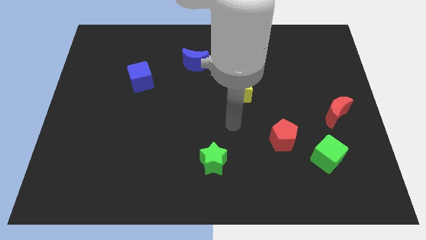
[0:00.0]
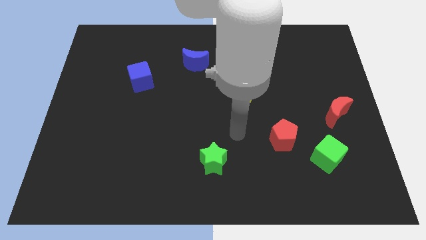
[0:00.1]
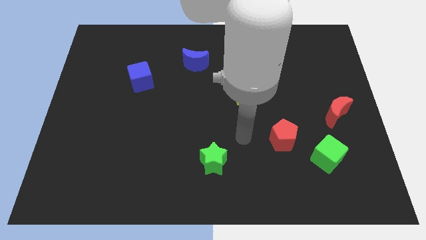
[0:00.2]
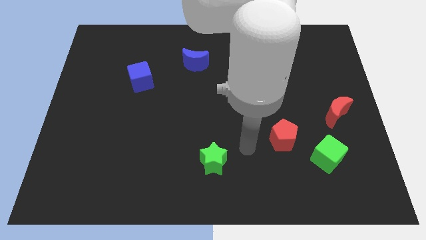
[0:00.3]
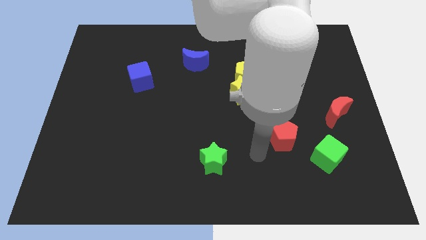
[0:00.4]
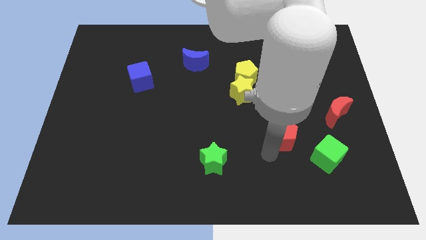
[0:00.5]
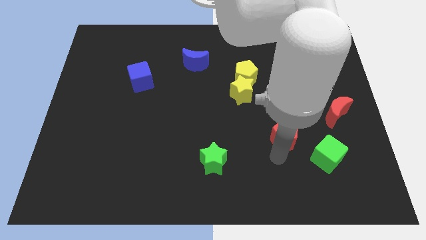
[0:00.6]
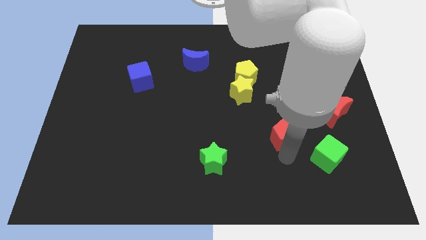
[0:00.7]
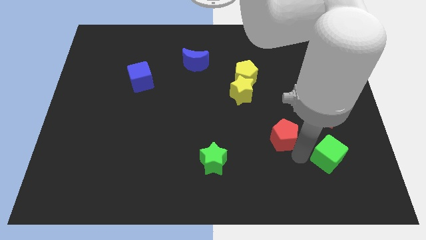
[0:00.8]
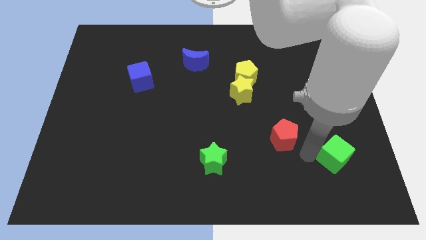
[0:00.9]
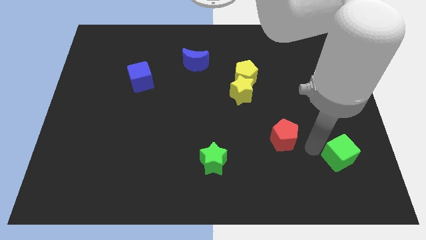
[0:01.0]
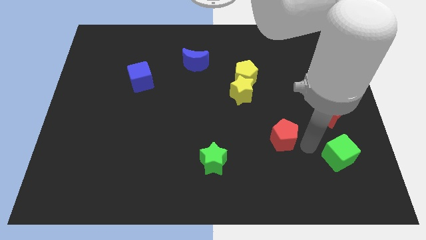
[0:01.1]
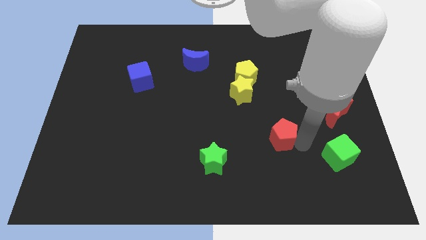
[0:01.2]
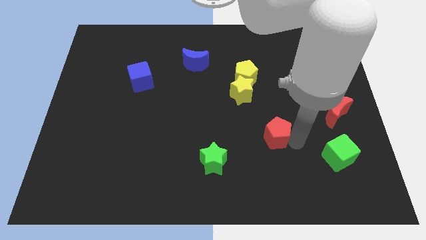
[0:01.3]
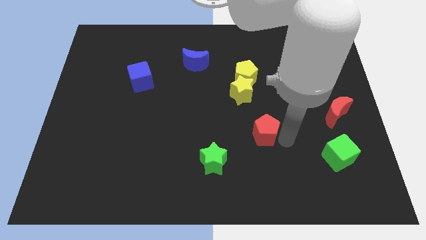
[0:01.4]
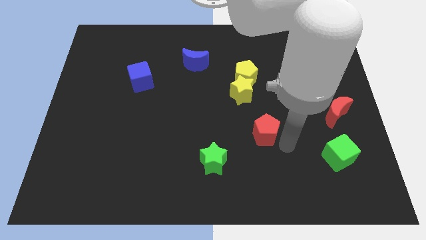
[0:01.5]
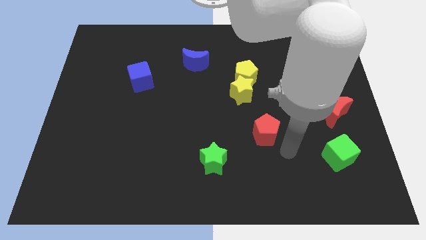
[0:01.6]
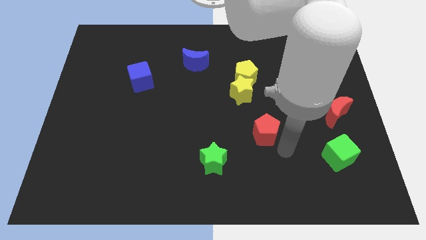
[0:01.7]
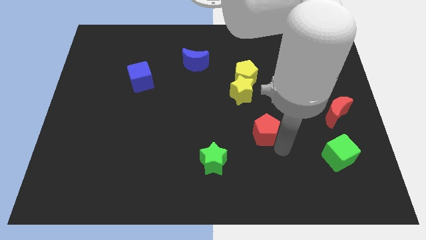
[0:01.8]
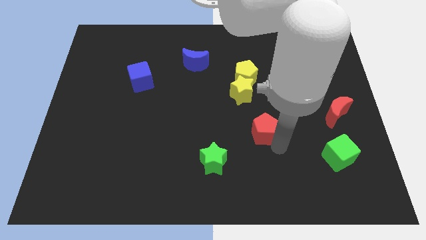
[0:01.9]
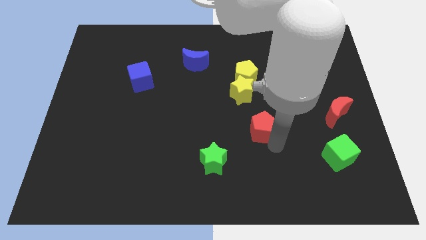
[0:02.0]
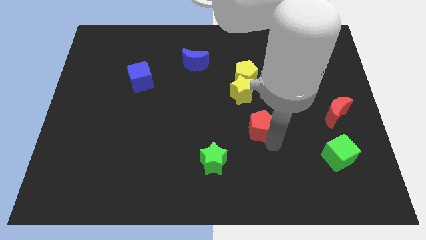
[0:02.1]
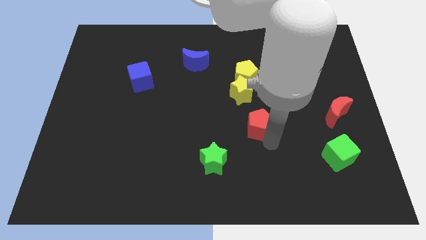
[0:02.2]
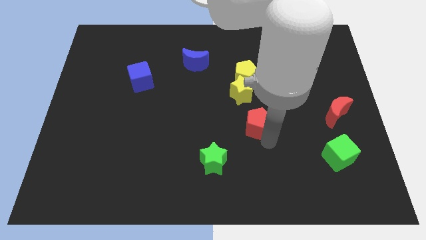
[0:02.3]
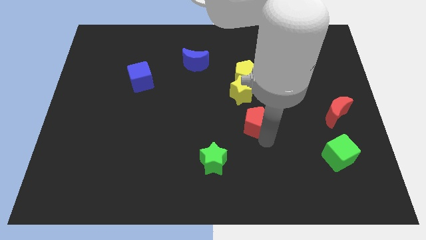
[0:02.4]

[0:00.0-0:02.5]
slightly move the red pentagon upwards and then left

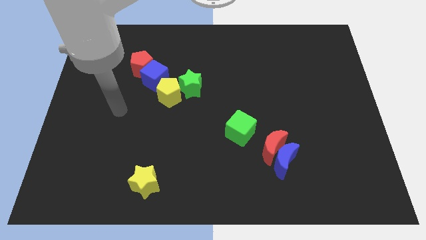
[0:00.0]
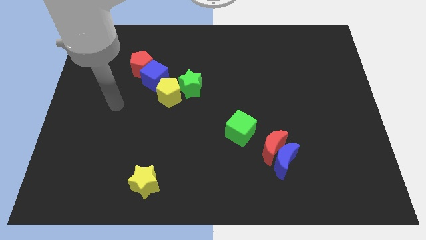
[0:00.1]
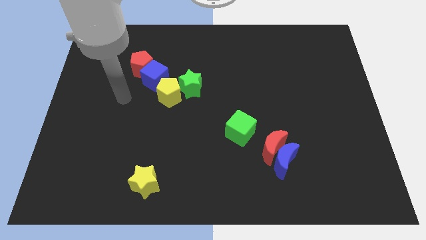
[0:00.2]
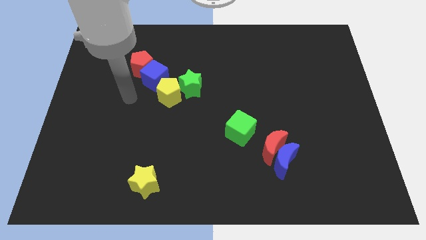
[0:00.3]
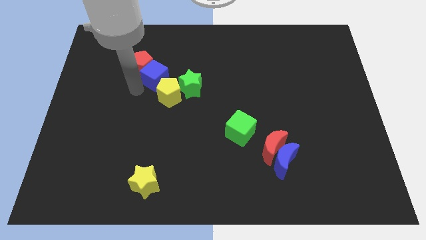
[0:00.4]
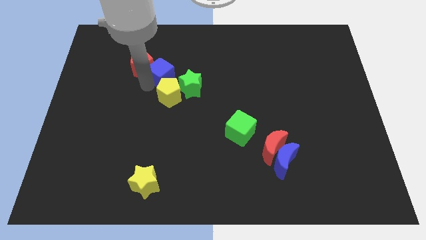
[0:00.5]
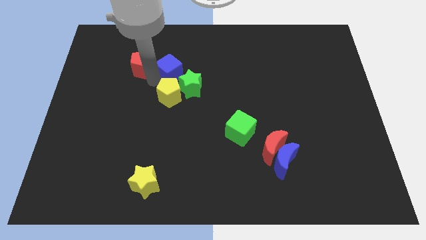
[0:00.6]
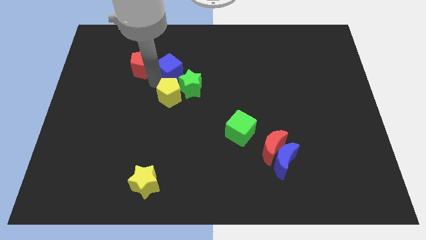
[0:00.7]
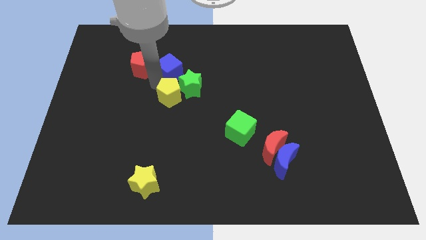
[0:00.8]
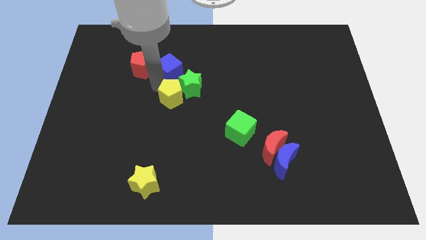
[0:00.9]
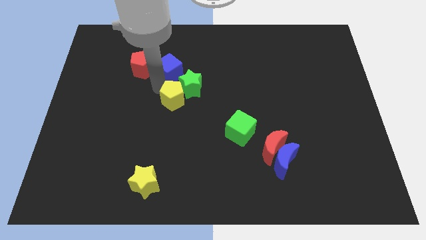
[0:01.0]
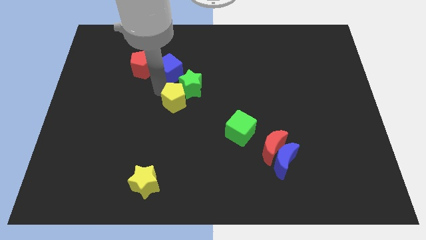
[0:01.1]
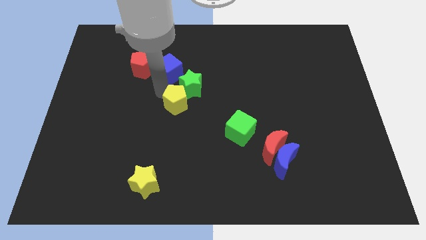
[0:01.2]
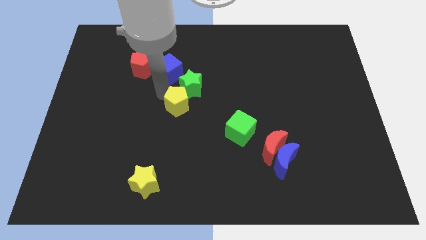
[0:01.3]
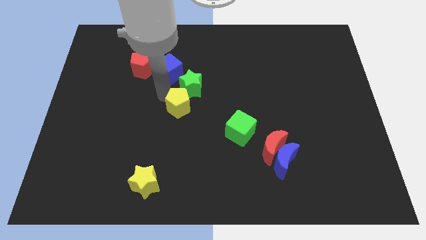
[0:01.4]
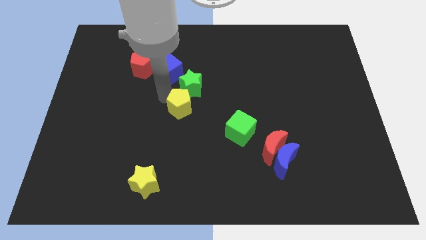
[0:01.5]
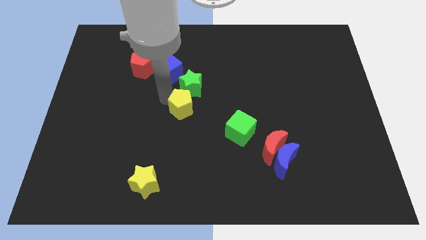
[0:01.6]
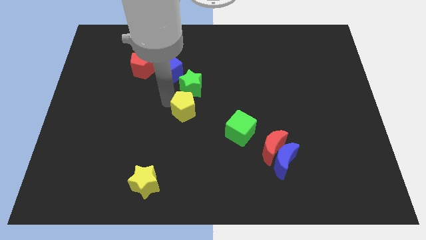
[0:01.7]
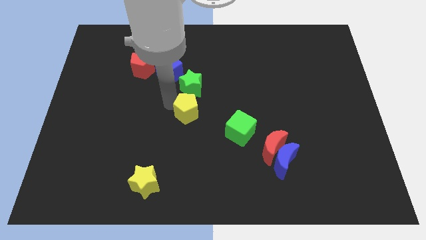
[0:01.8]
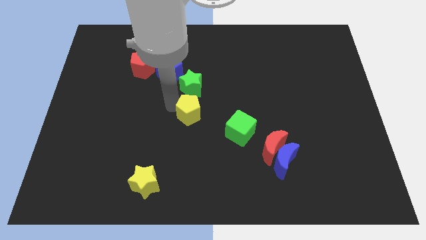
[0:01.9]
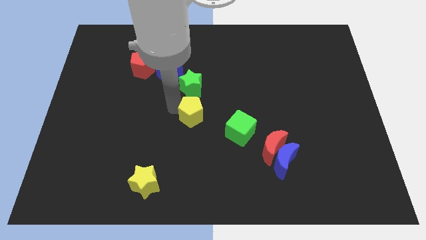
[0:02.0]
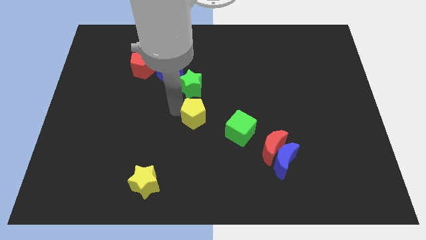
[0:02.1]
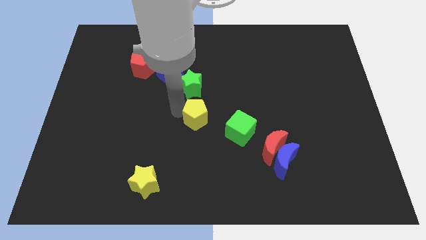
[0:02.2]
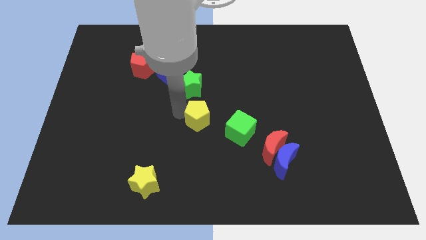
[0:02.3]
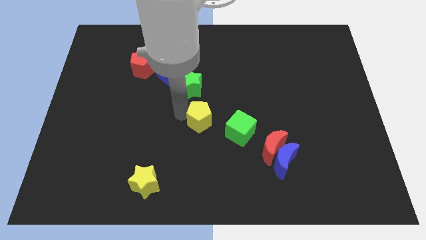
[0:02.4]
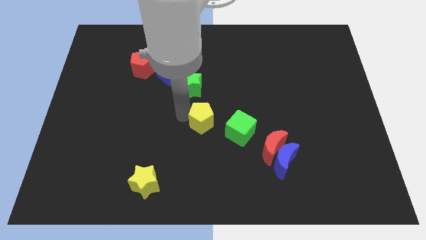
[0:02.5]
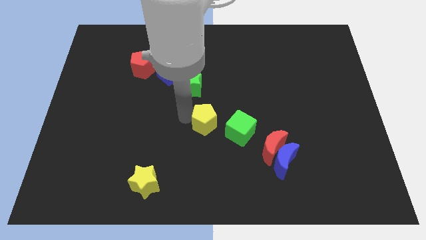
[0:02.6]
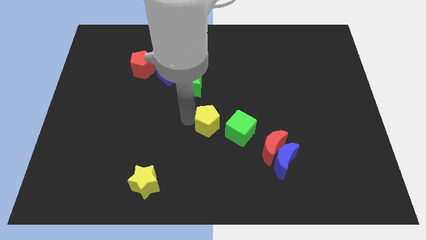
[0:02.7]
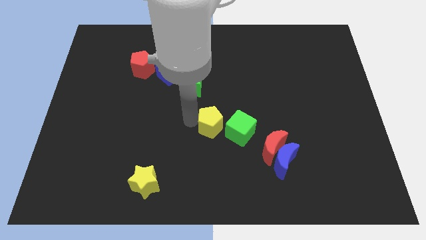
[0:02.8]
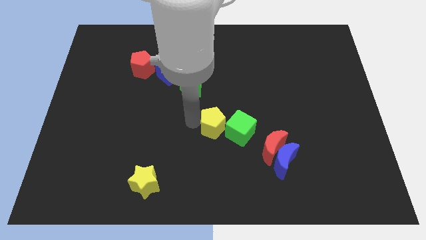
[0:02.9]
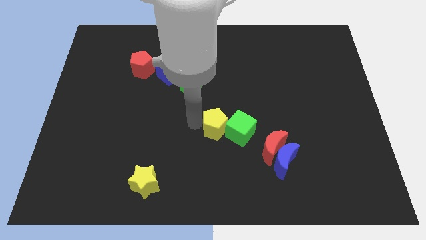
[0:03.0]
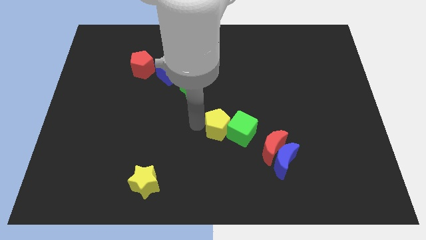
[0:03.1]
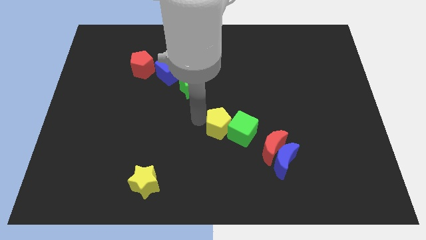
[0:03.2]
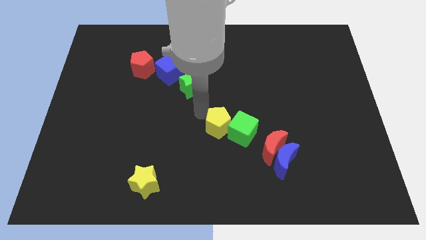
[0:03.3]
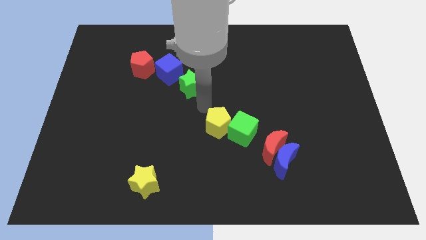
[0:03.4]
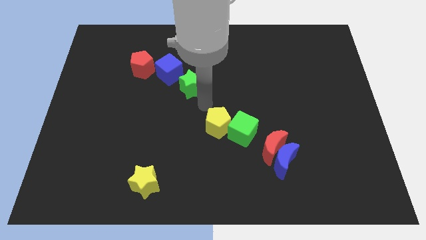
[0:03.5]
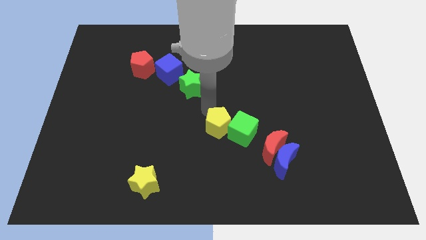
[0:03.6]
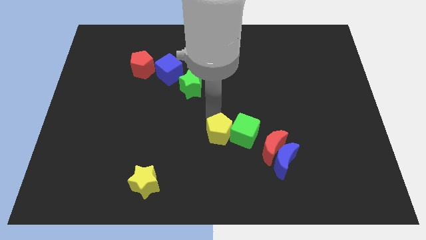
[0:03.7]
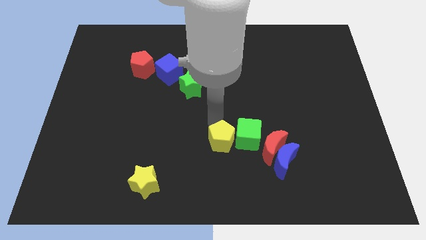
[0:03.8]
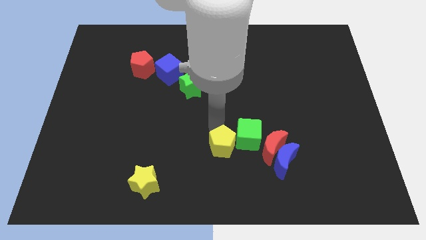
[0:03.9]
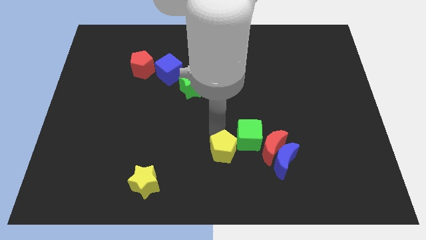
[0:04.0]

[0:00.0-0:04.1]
slide the yellow pentagon downwards and right diagonally

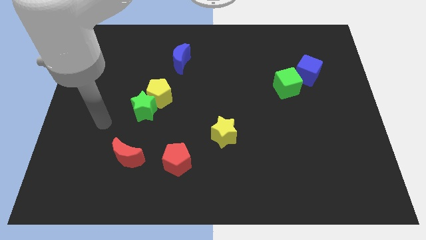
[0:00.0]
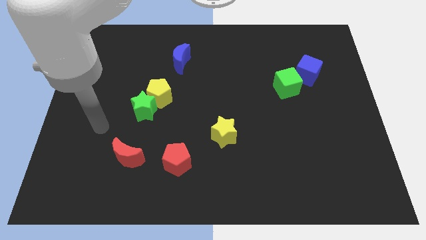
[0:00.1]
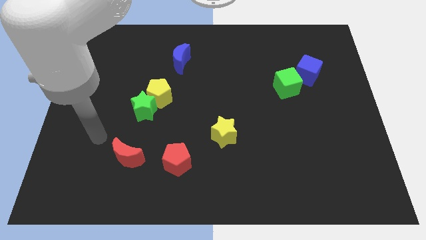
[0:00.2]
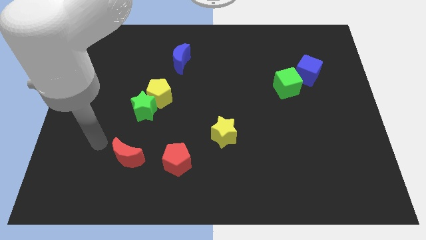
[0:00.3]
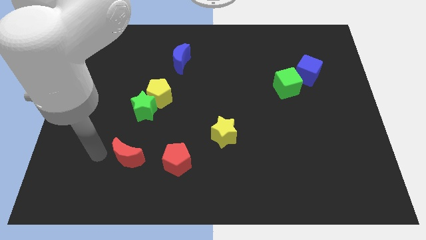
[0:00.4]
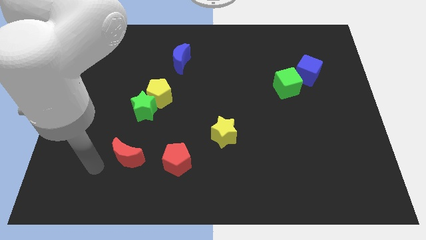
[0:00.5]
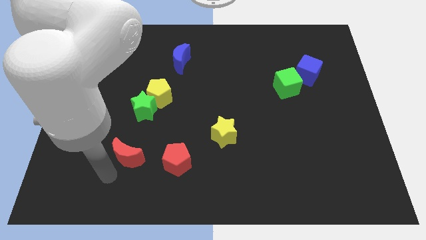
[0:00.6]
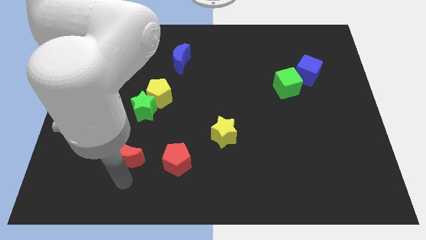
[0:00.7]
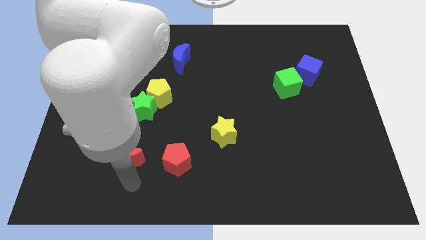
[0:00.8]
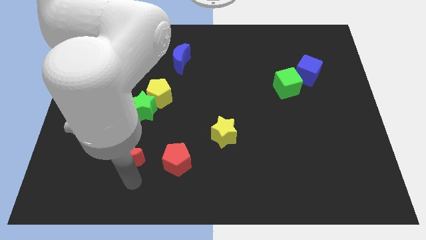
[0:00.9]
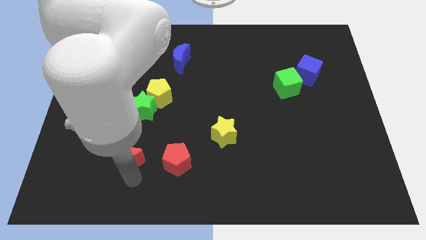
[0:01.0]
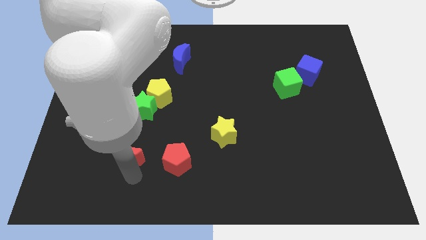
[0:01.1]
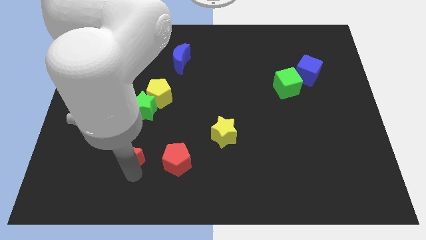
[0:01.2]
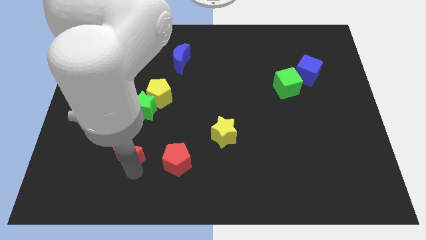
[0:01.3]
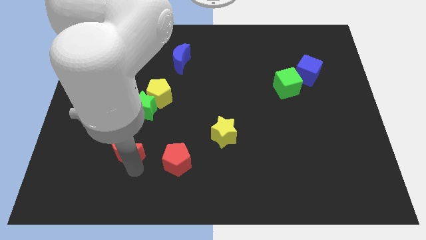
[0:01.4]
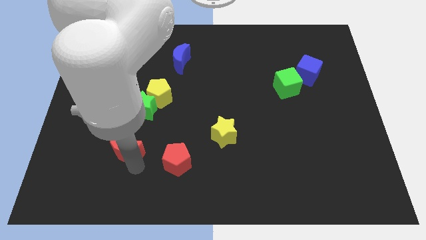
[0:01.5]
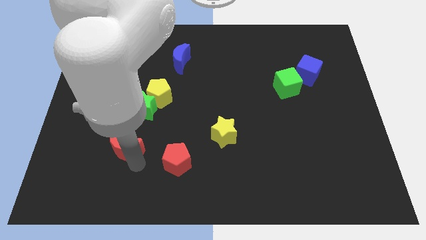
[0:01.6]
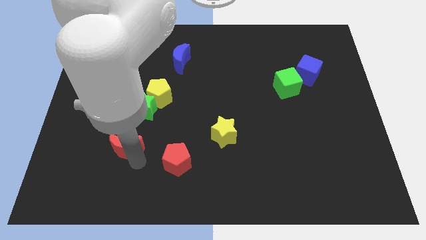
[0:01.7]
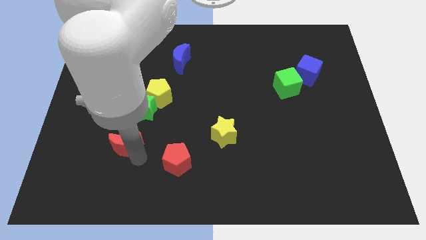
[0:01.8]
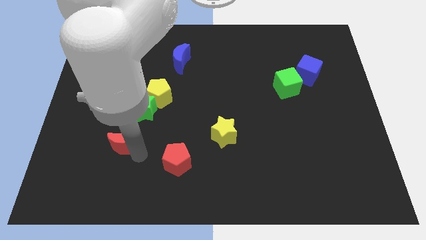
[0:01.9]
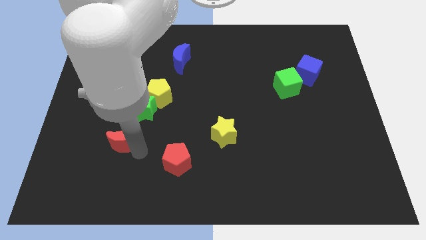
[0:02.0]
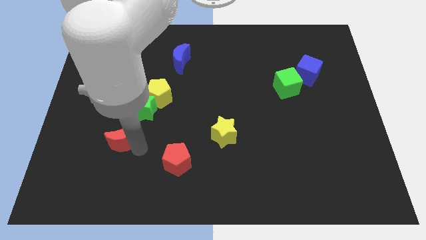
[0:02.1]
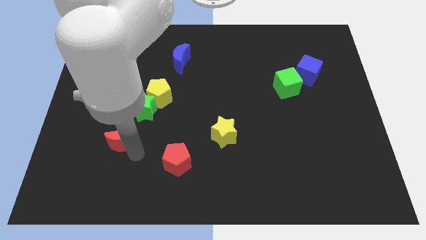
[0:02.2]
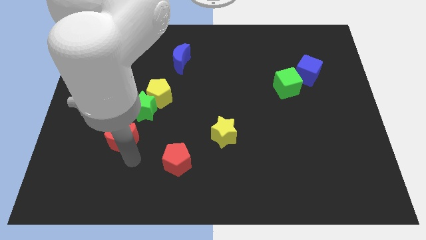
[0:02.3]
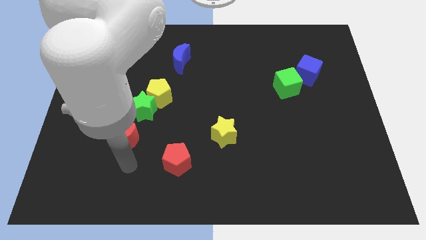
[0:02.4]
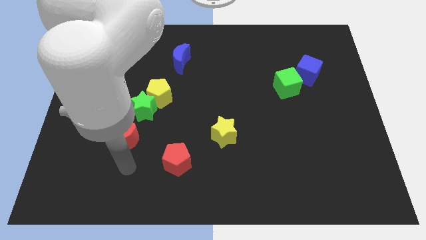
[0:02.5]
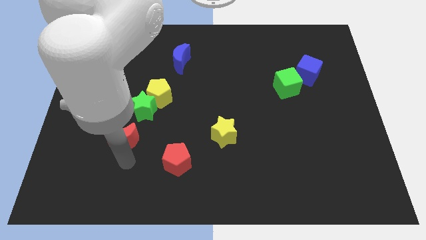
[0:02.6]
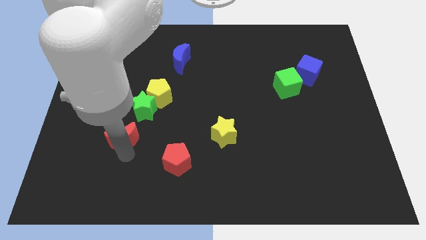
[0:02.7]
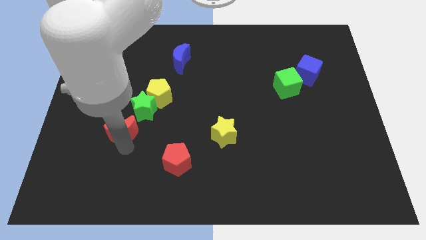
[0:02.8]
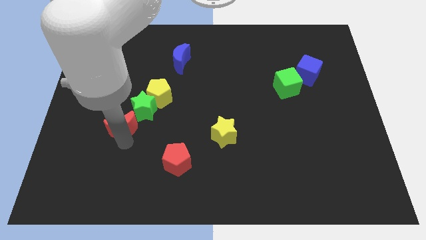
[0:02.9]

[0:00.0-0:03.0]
slightly push the red moon up
